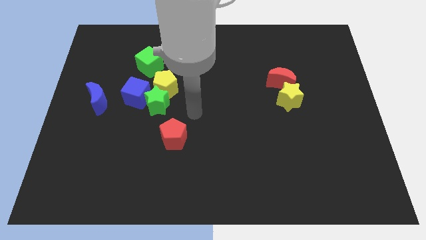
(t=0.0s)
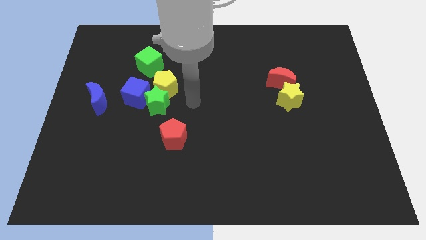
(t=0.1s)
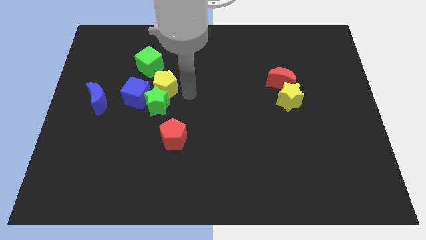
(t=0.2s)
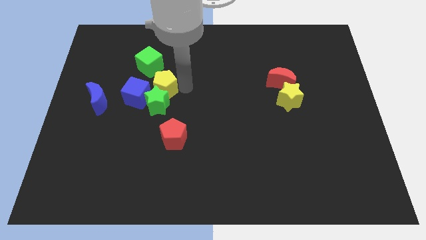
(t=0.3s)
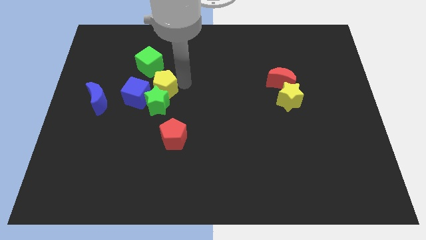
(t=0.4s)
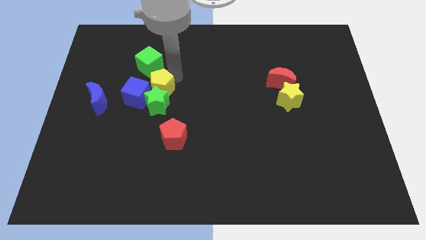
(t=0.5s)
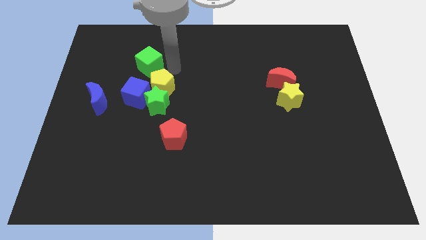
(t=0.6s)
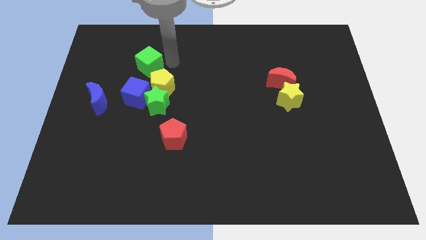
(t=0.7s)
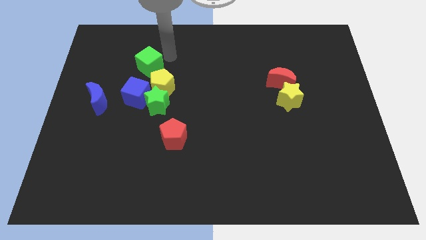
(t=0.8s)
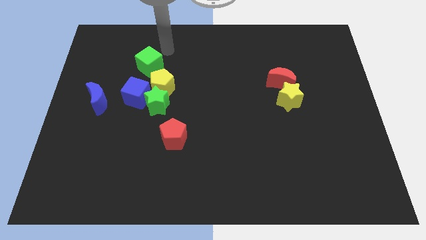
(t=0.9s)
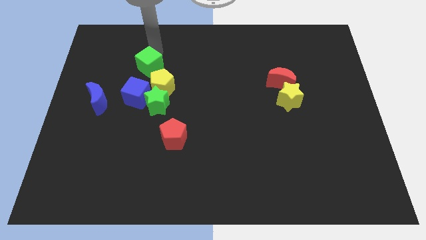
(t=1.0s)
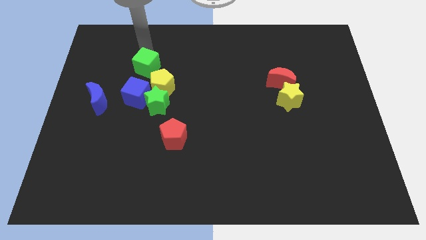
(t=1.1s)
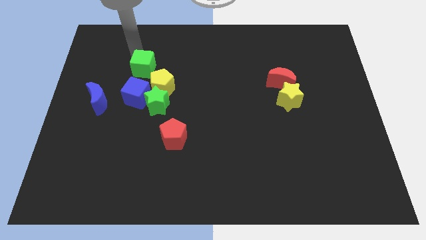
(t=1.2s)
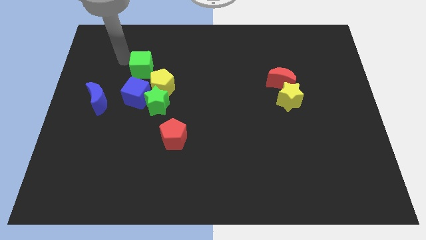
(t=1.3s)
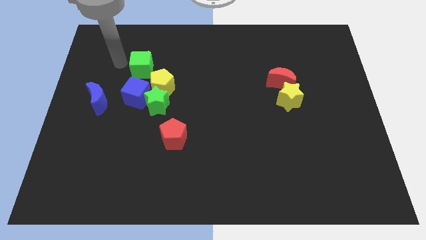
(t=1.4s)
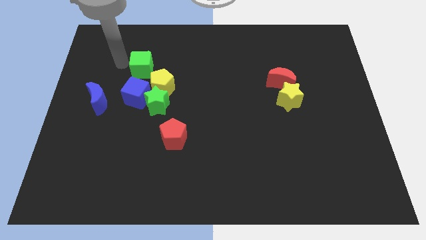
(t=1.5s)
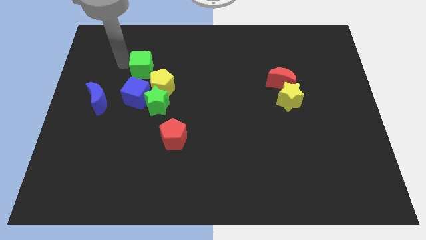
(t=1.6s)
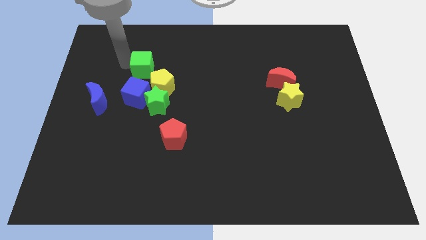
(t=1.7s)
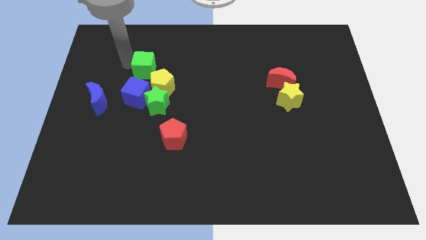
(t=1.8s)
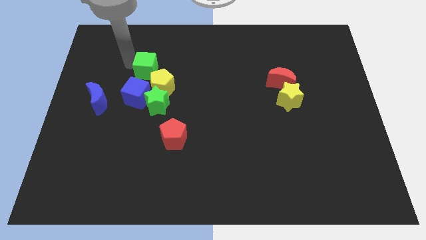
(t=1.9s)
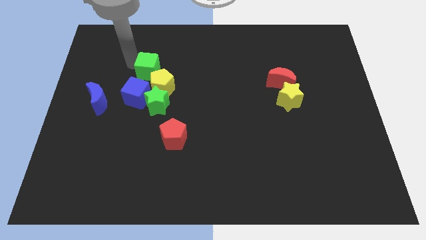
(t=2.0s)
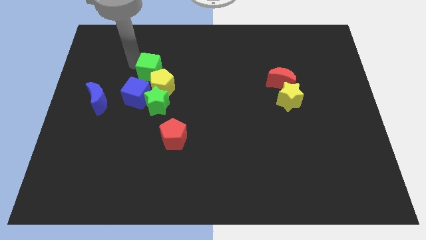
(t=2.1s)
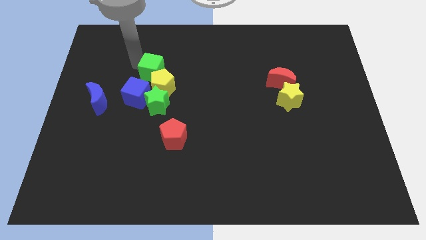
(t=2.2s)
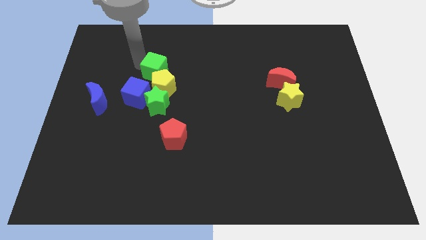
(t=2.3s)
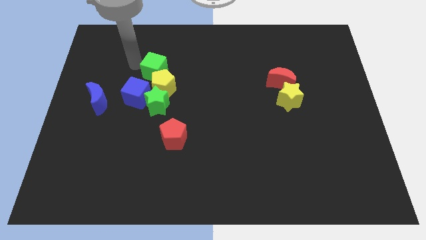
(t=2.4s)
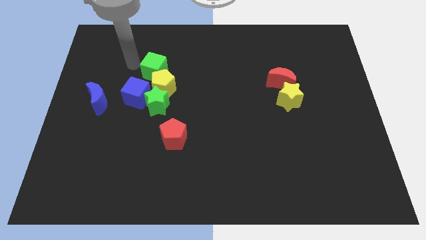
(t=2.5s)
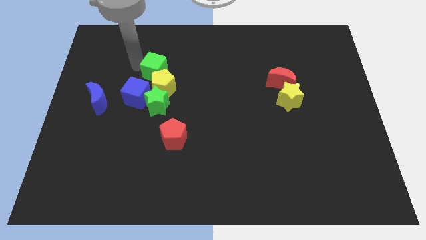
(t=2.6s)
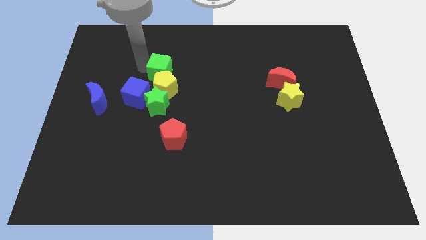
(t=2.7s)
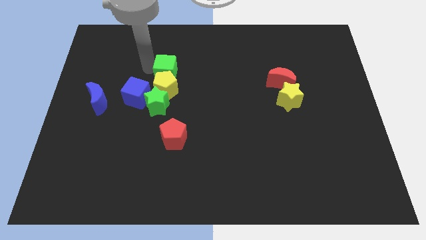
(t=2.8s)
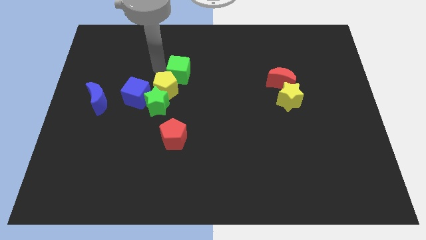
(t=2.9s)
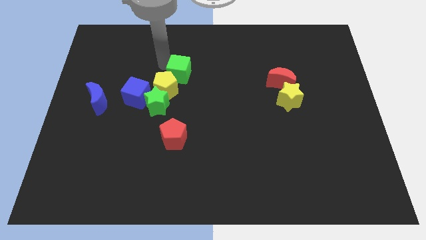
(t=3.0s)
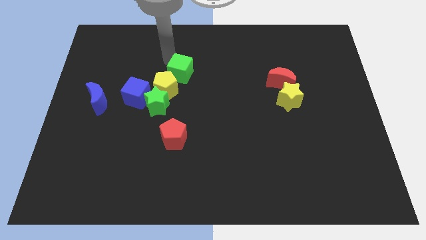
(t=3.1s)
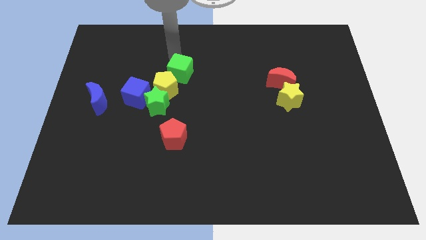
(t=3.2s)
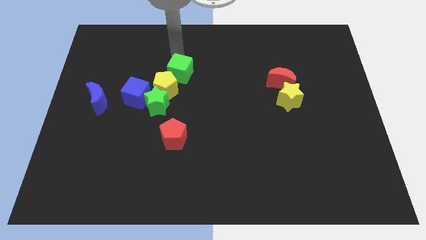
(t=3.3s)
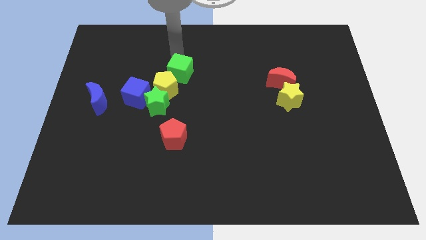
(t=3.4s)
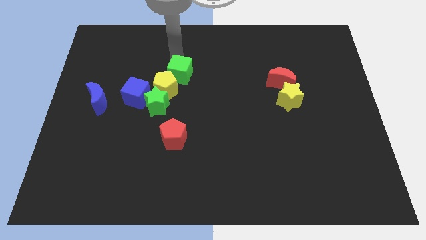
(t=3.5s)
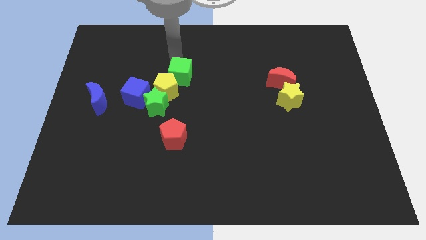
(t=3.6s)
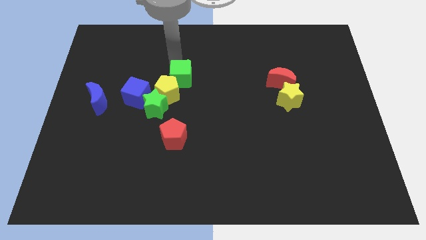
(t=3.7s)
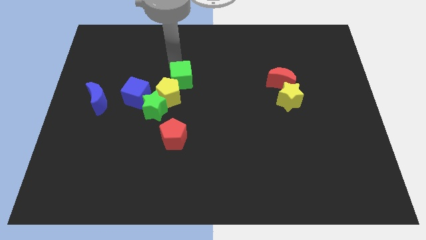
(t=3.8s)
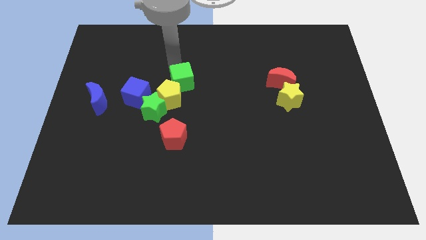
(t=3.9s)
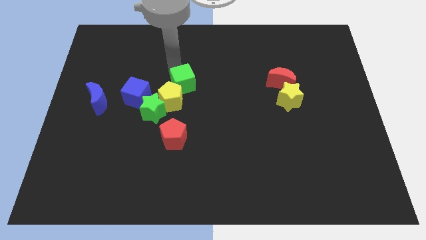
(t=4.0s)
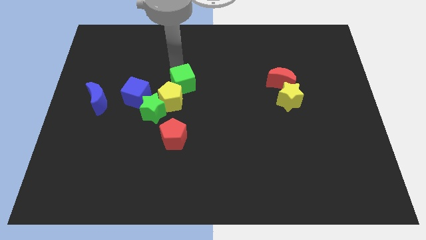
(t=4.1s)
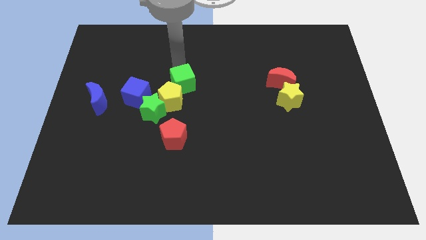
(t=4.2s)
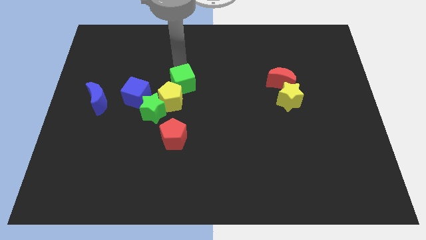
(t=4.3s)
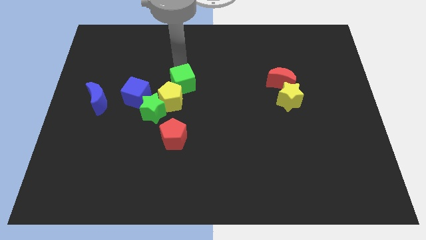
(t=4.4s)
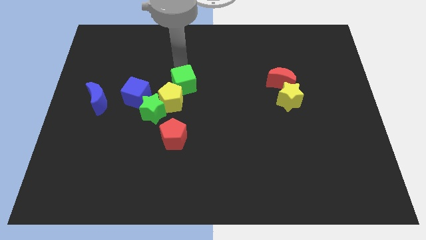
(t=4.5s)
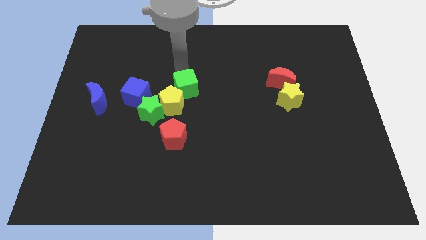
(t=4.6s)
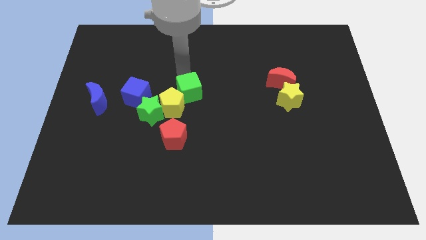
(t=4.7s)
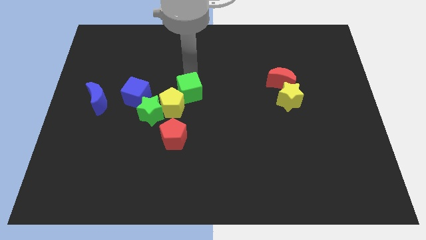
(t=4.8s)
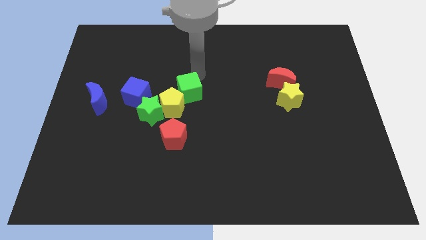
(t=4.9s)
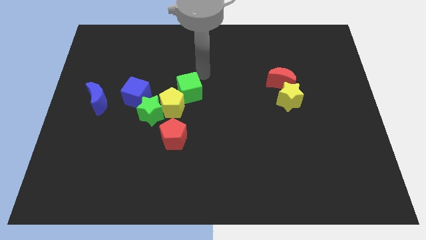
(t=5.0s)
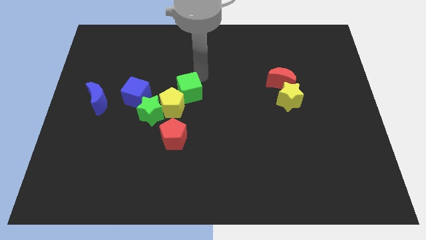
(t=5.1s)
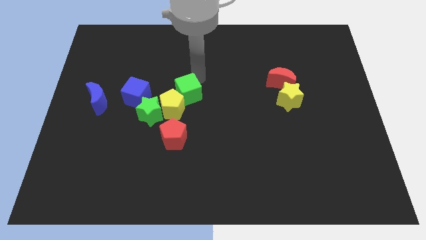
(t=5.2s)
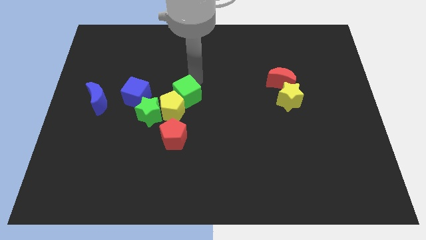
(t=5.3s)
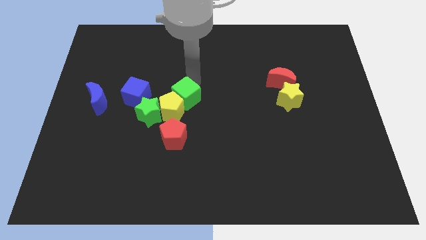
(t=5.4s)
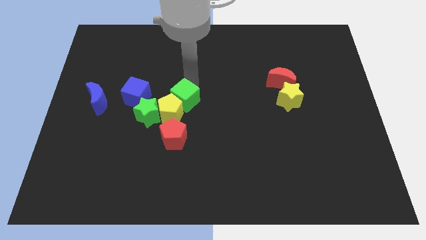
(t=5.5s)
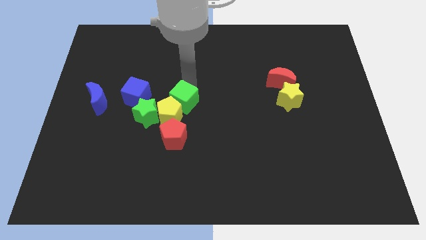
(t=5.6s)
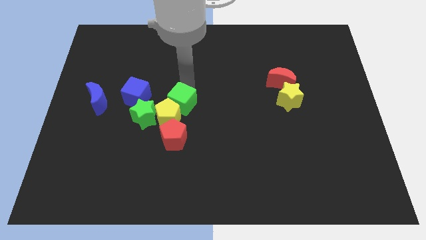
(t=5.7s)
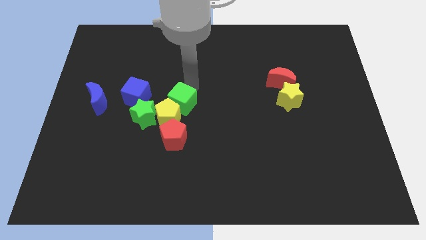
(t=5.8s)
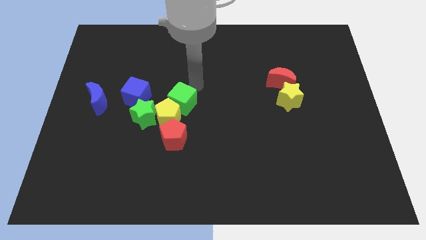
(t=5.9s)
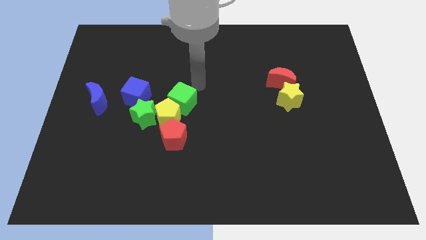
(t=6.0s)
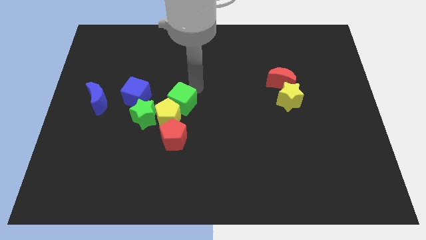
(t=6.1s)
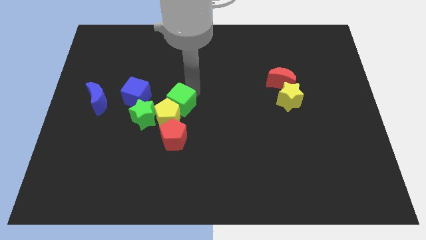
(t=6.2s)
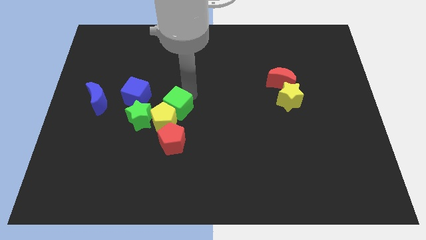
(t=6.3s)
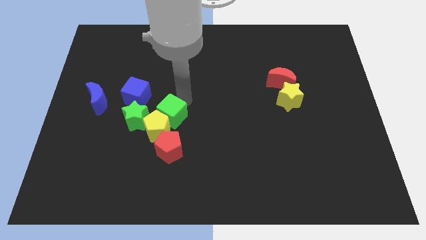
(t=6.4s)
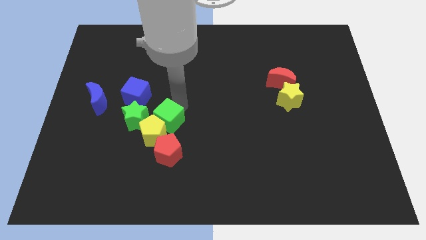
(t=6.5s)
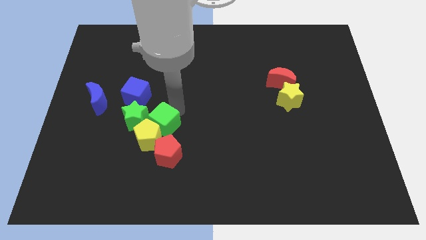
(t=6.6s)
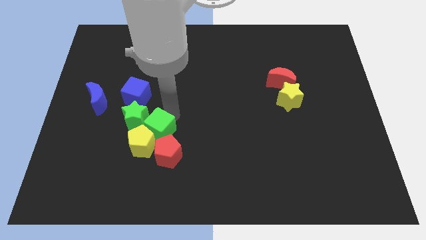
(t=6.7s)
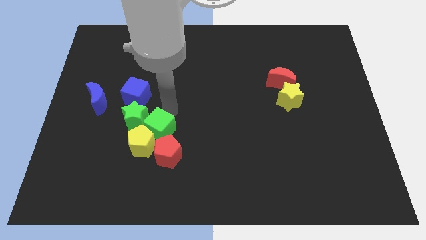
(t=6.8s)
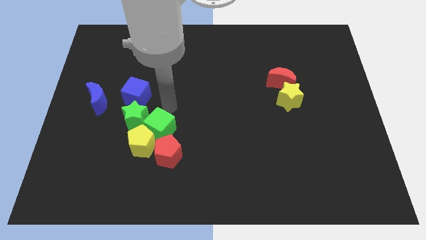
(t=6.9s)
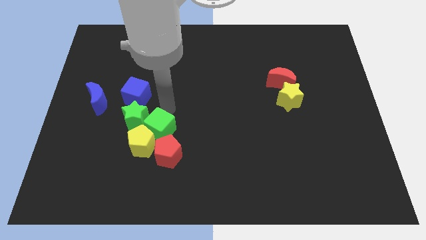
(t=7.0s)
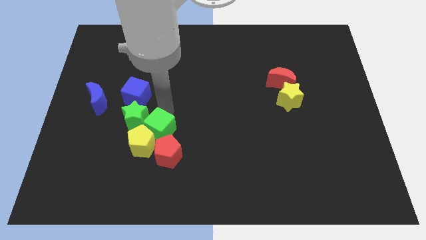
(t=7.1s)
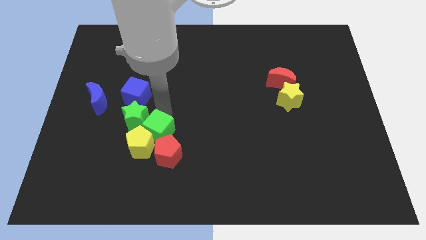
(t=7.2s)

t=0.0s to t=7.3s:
move the green cube downwards

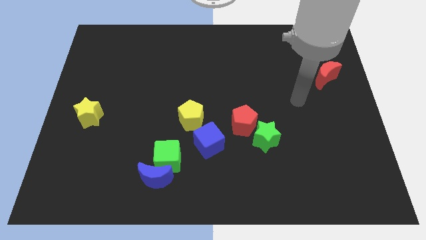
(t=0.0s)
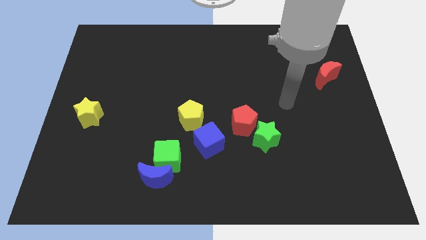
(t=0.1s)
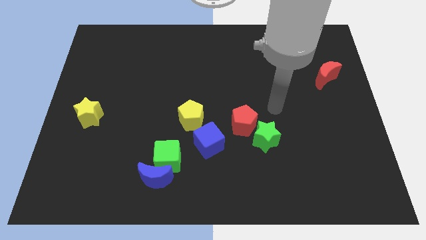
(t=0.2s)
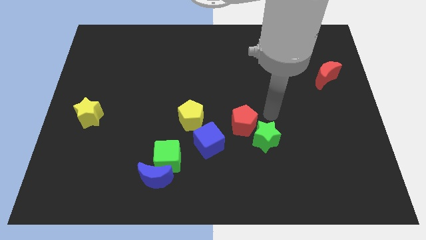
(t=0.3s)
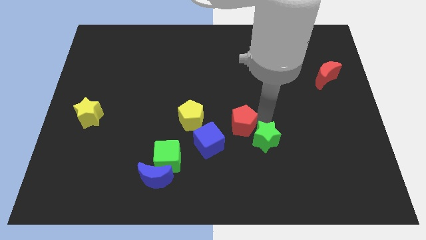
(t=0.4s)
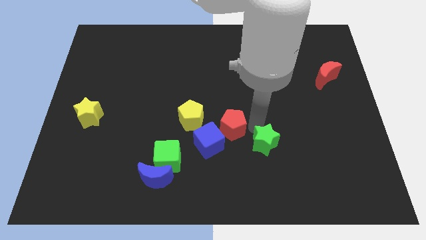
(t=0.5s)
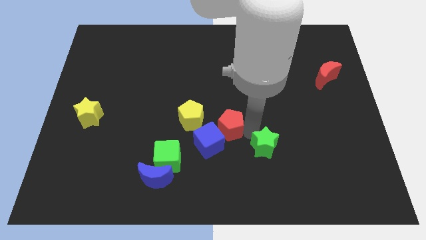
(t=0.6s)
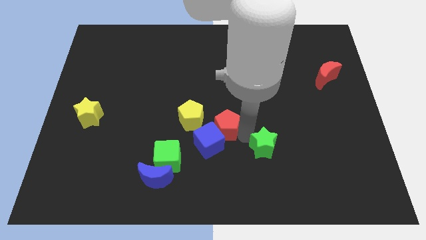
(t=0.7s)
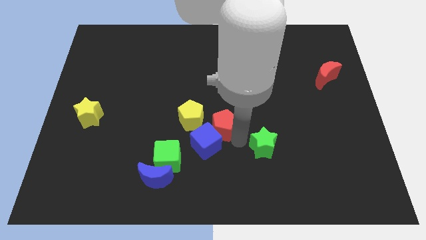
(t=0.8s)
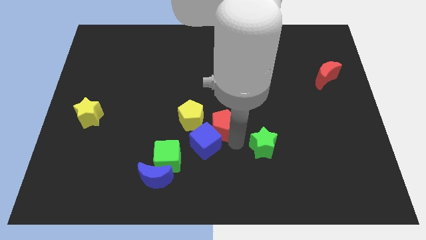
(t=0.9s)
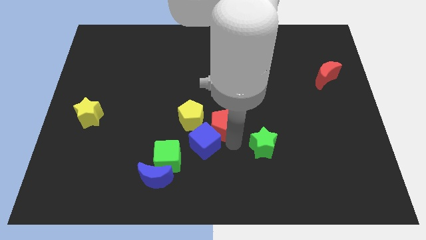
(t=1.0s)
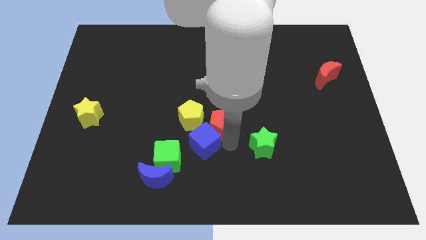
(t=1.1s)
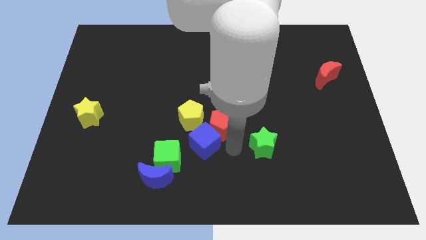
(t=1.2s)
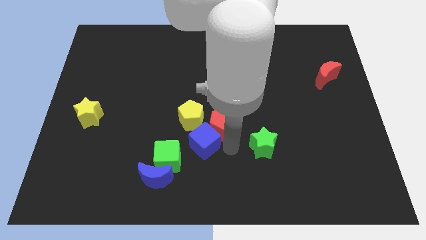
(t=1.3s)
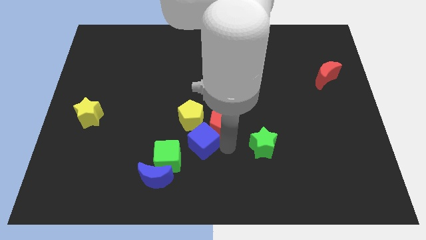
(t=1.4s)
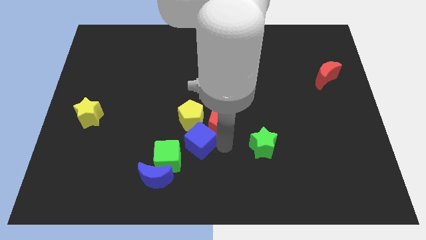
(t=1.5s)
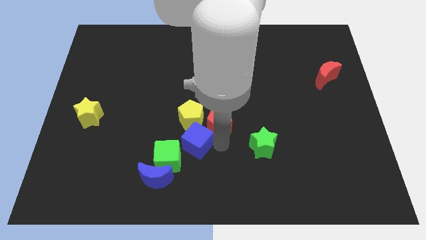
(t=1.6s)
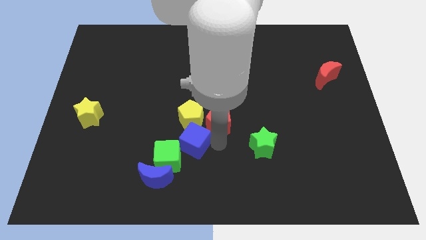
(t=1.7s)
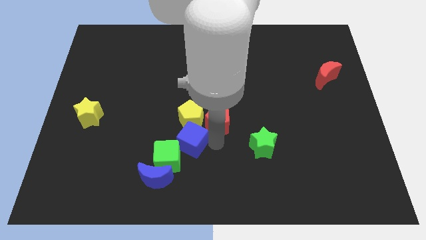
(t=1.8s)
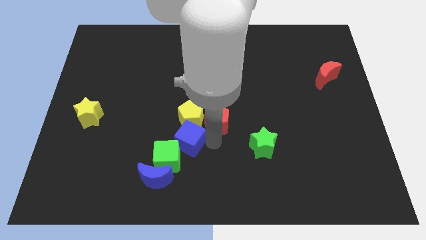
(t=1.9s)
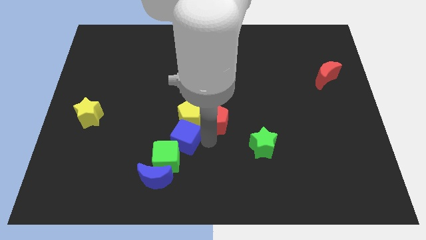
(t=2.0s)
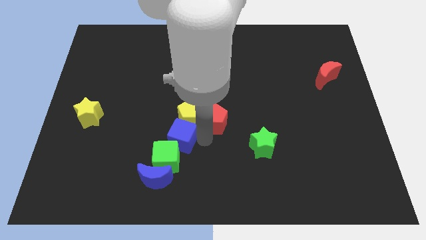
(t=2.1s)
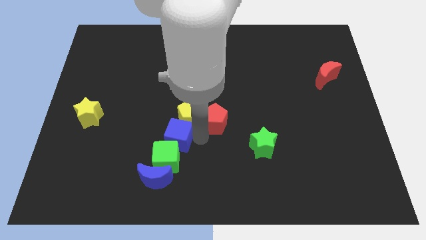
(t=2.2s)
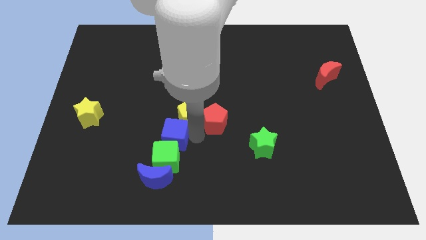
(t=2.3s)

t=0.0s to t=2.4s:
slightly slide the blue cube to the left
